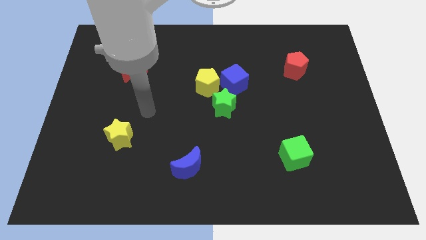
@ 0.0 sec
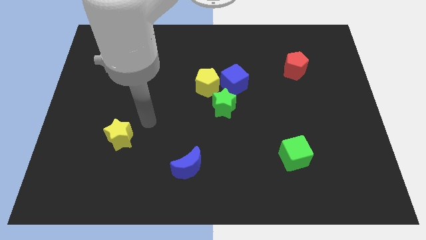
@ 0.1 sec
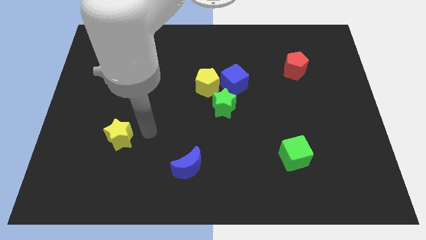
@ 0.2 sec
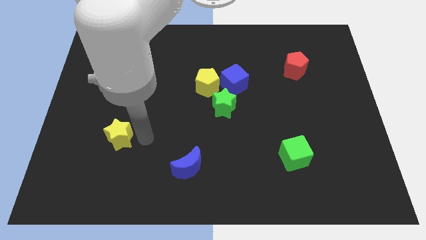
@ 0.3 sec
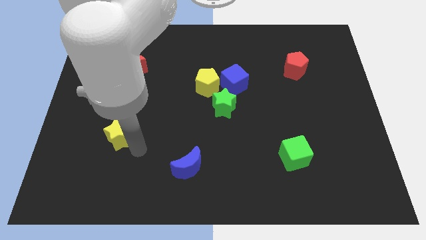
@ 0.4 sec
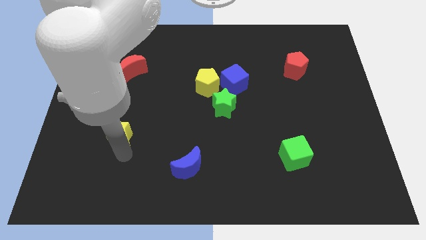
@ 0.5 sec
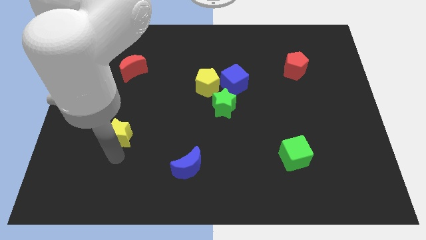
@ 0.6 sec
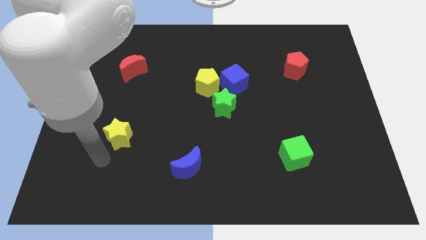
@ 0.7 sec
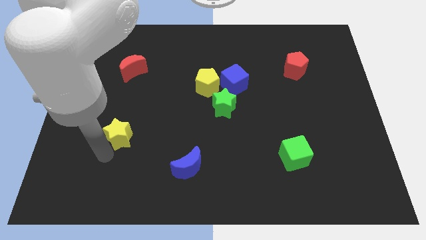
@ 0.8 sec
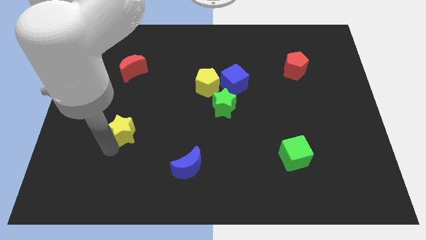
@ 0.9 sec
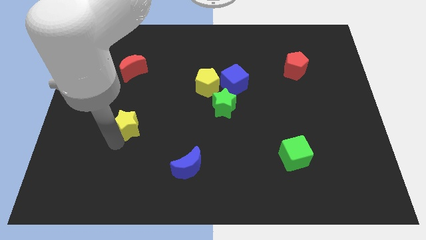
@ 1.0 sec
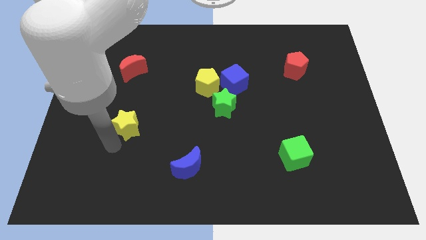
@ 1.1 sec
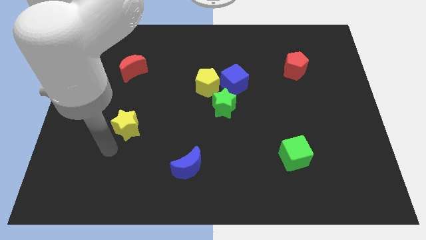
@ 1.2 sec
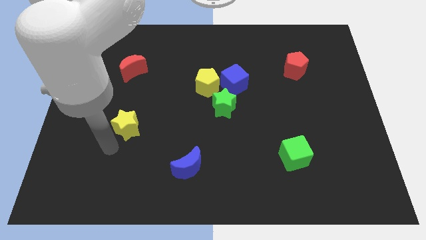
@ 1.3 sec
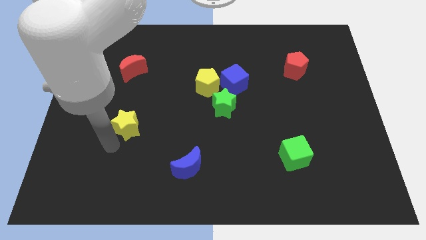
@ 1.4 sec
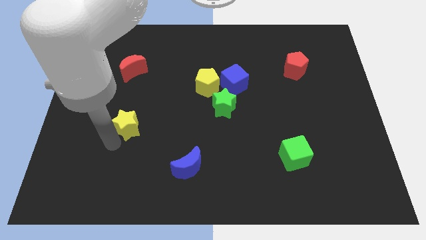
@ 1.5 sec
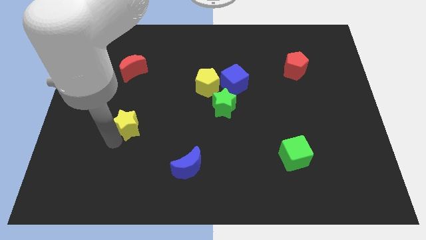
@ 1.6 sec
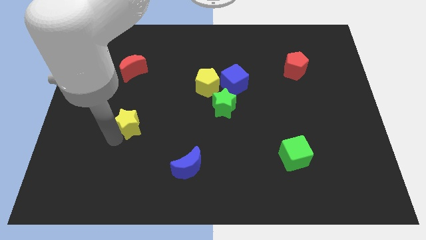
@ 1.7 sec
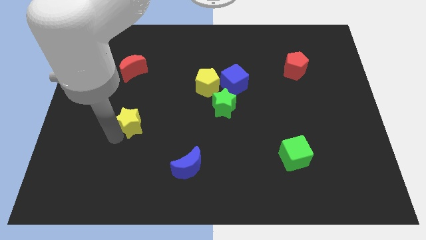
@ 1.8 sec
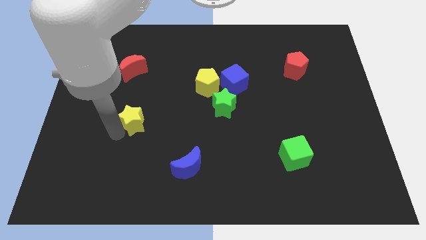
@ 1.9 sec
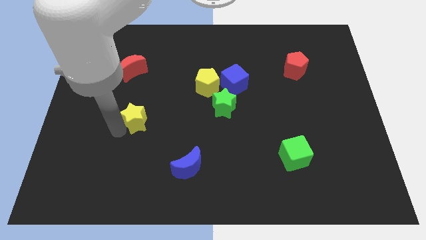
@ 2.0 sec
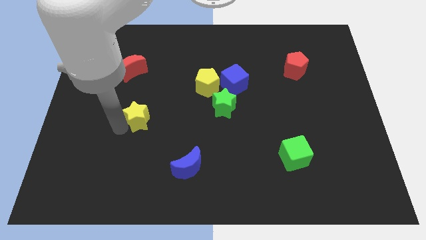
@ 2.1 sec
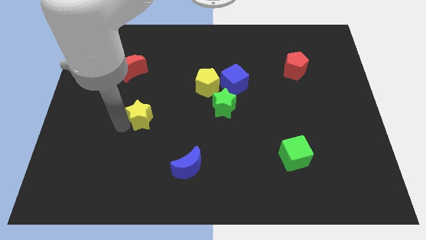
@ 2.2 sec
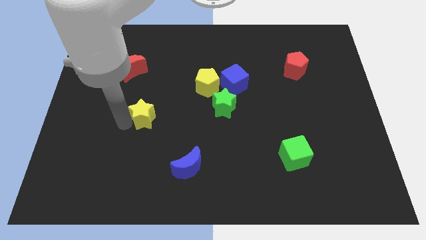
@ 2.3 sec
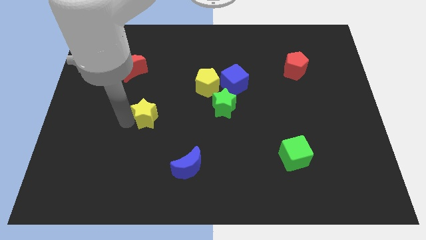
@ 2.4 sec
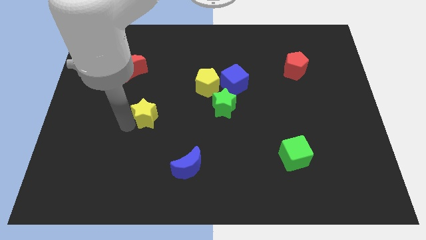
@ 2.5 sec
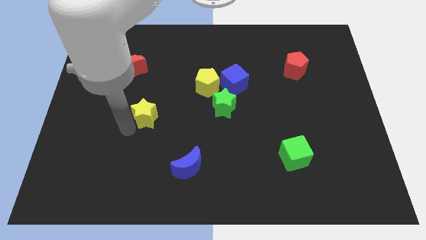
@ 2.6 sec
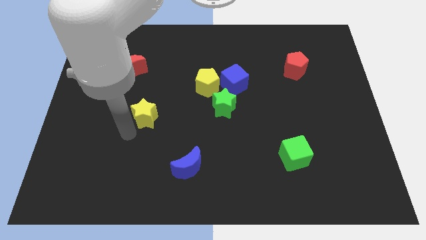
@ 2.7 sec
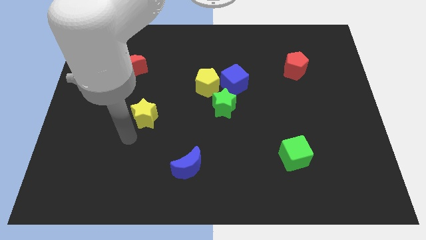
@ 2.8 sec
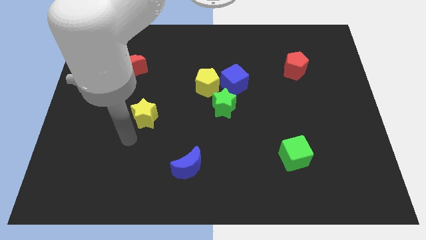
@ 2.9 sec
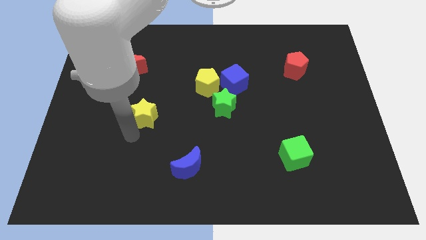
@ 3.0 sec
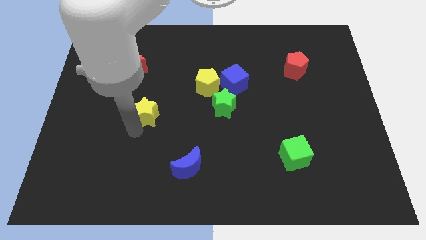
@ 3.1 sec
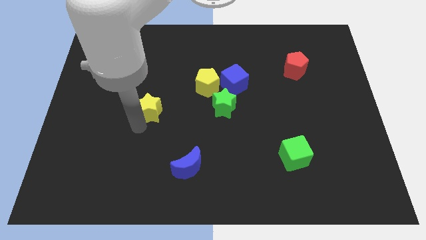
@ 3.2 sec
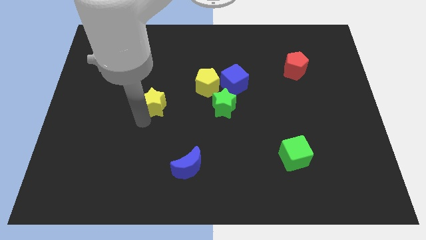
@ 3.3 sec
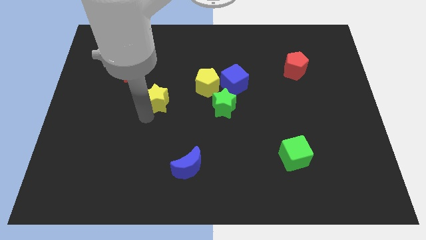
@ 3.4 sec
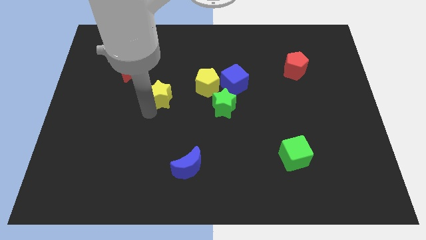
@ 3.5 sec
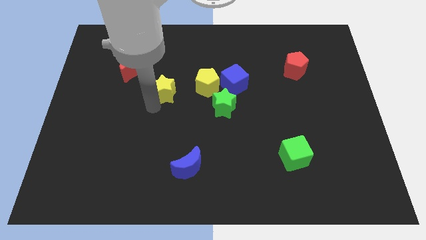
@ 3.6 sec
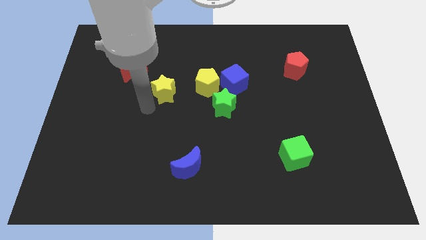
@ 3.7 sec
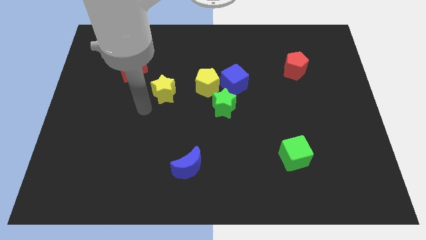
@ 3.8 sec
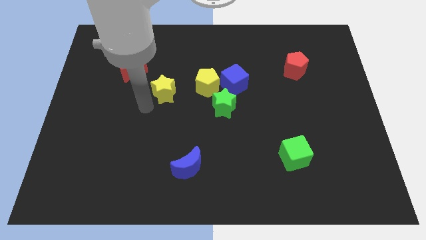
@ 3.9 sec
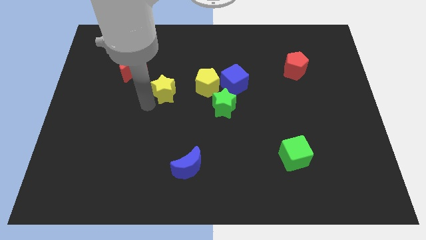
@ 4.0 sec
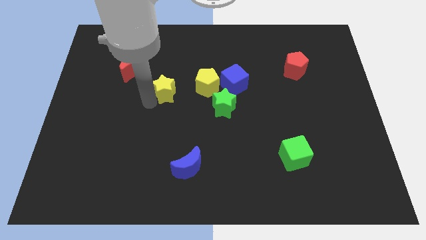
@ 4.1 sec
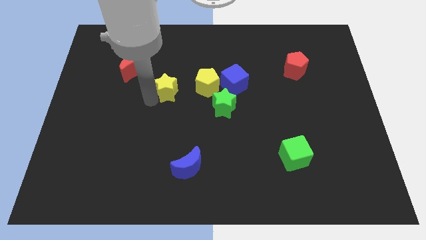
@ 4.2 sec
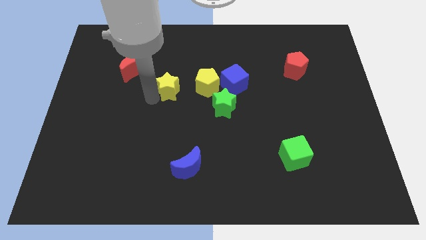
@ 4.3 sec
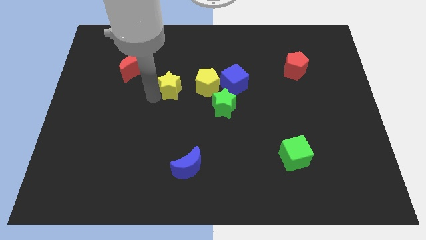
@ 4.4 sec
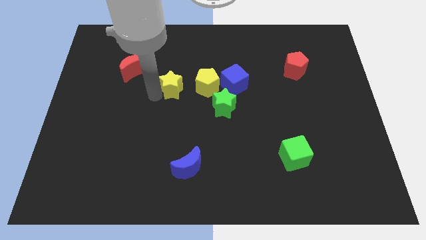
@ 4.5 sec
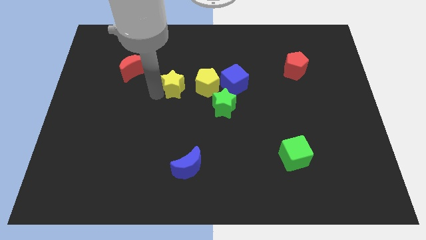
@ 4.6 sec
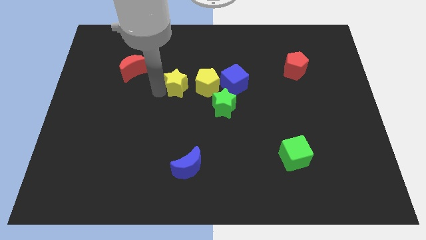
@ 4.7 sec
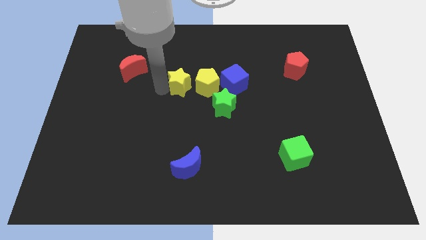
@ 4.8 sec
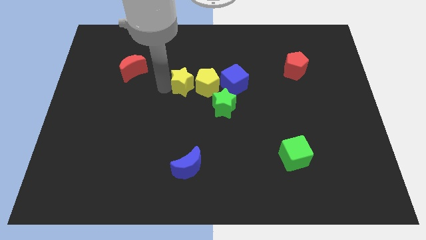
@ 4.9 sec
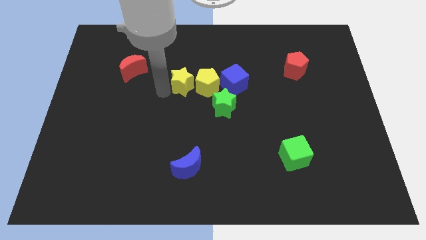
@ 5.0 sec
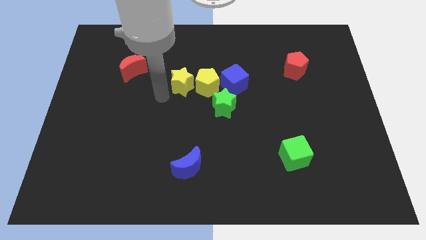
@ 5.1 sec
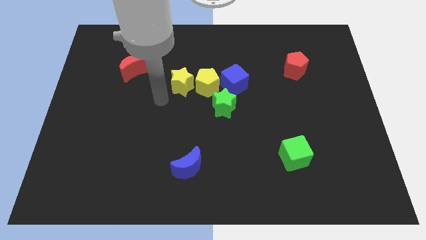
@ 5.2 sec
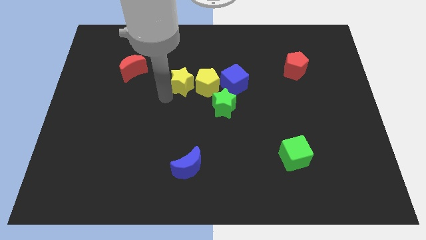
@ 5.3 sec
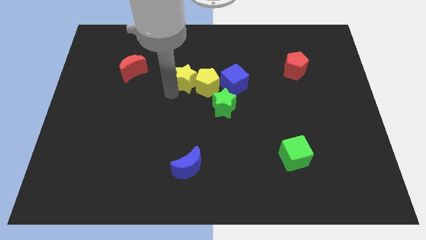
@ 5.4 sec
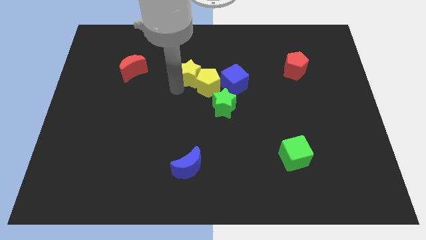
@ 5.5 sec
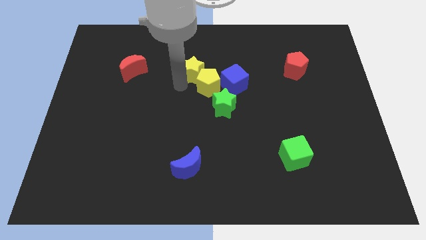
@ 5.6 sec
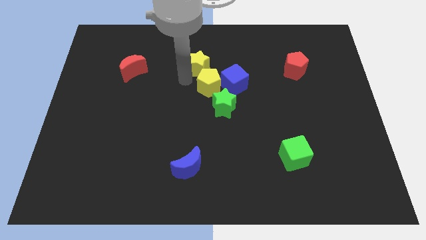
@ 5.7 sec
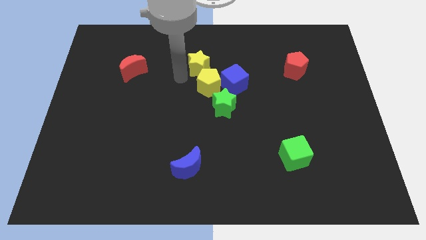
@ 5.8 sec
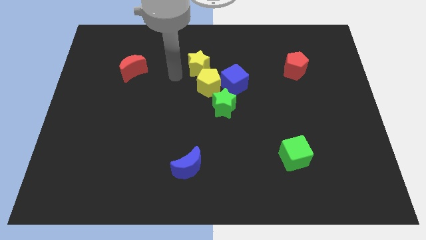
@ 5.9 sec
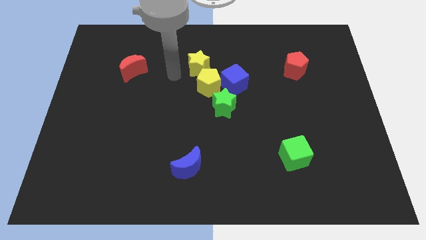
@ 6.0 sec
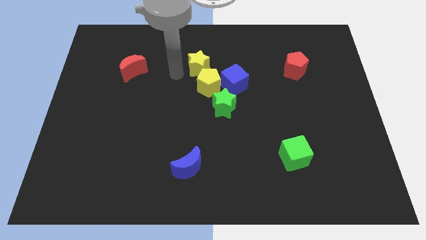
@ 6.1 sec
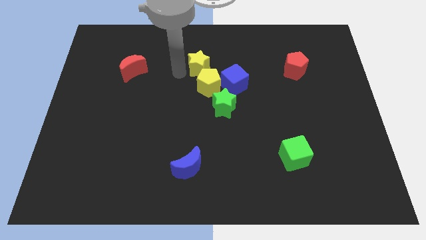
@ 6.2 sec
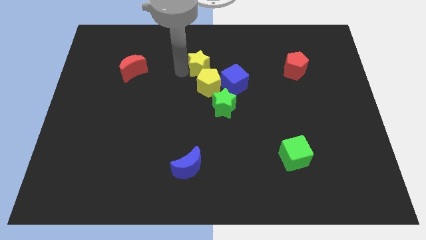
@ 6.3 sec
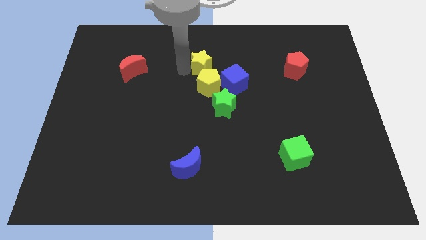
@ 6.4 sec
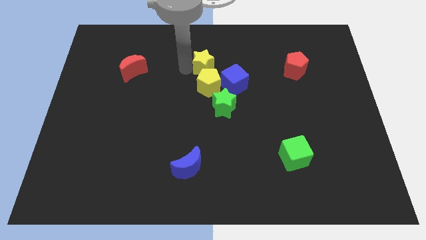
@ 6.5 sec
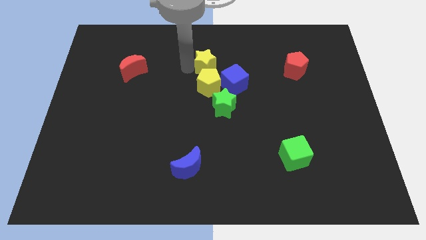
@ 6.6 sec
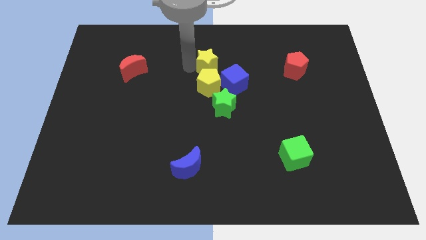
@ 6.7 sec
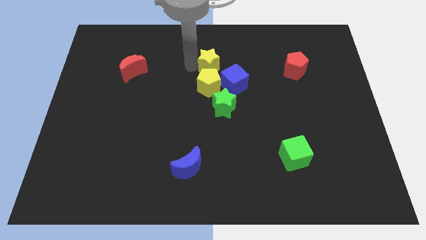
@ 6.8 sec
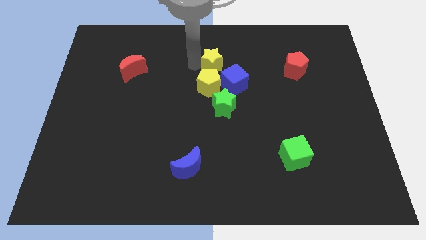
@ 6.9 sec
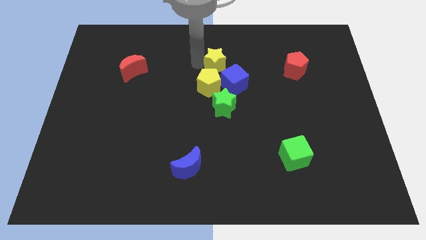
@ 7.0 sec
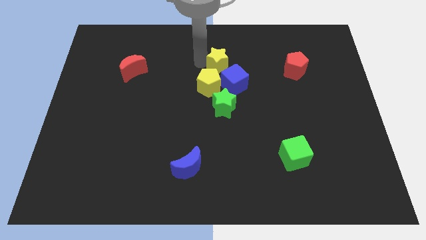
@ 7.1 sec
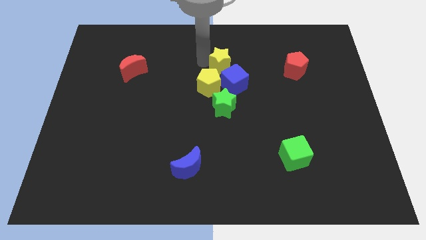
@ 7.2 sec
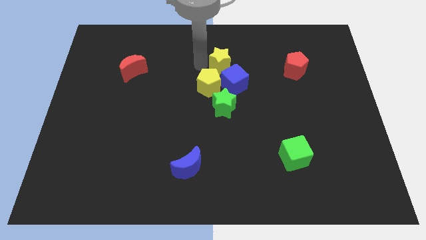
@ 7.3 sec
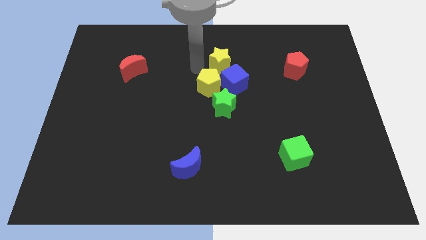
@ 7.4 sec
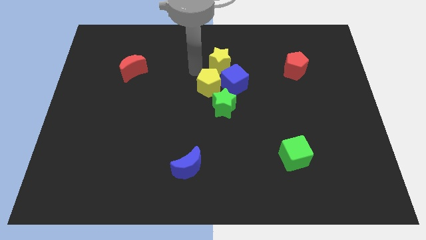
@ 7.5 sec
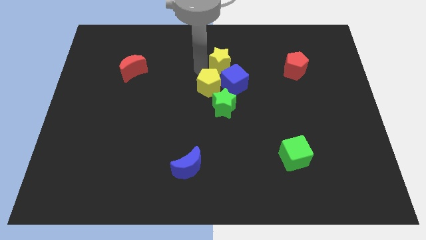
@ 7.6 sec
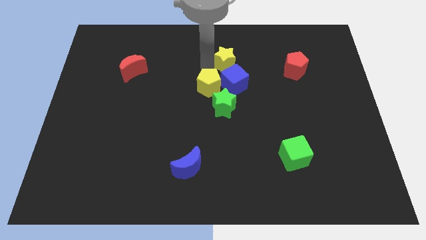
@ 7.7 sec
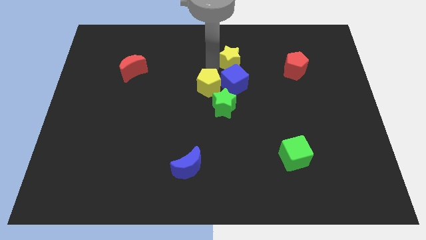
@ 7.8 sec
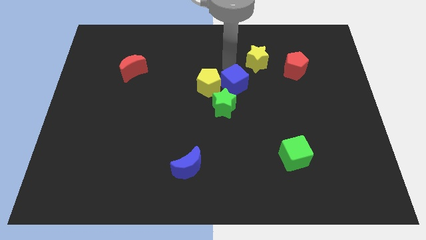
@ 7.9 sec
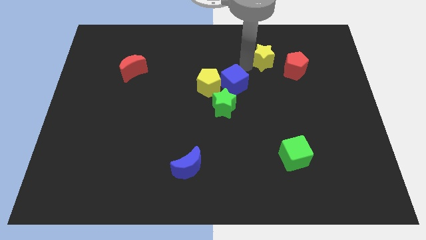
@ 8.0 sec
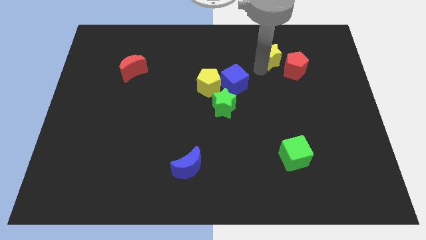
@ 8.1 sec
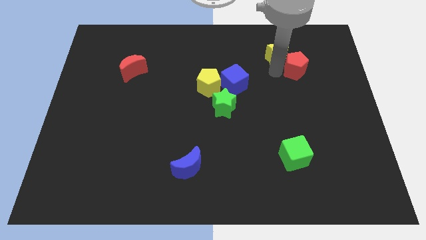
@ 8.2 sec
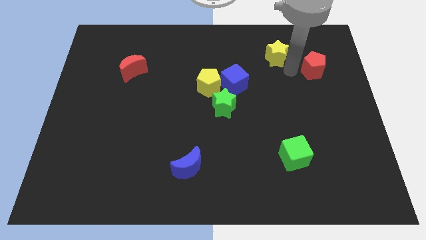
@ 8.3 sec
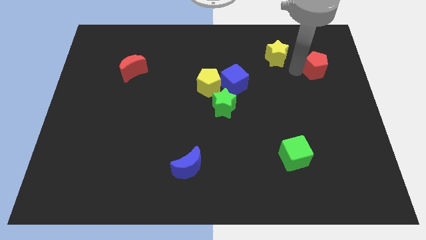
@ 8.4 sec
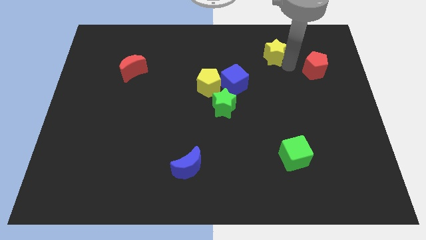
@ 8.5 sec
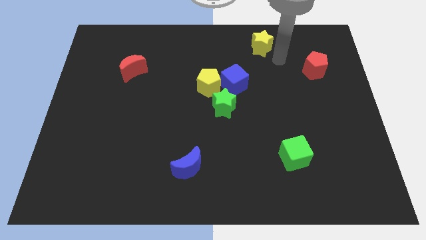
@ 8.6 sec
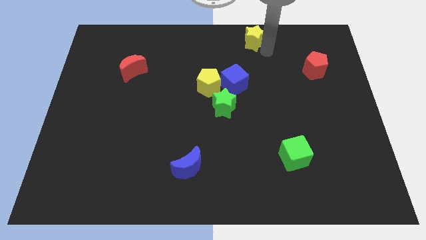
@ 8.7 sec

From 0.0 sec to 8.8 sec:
slide the yellow star to the top side
